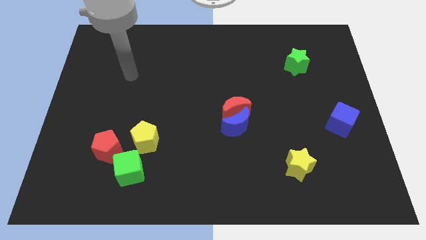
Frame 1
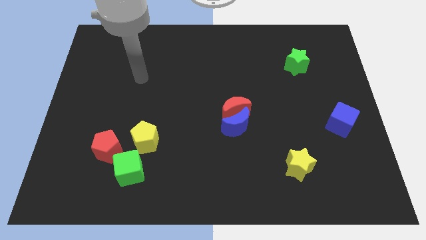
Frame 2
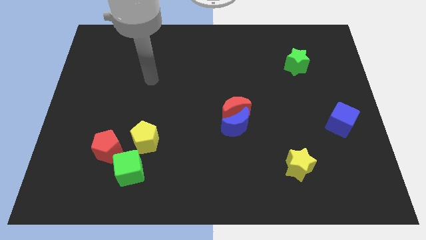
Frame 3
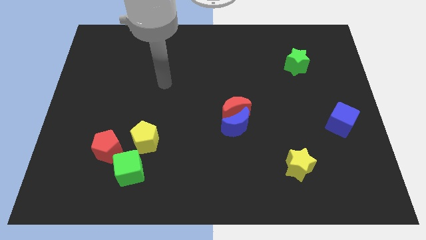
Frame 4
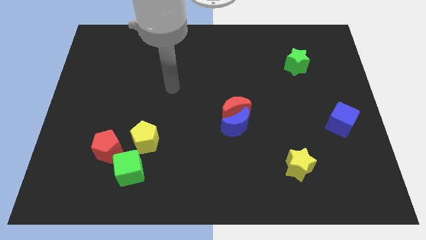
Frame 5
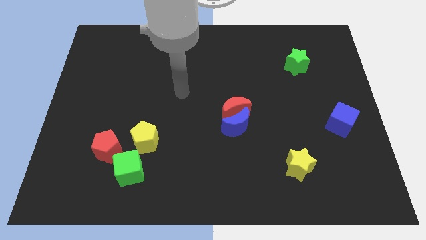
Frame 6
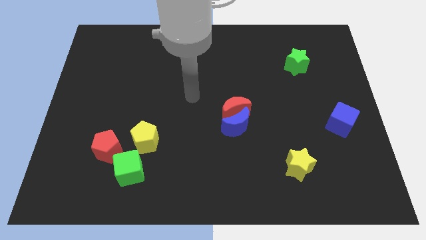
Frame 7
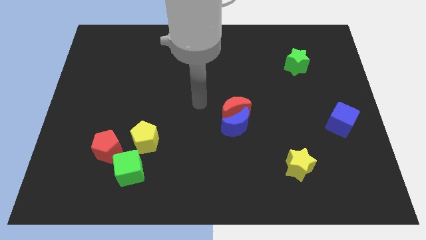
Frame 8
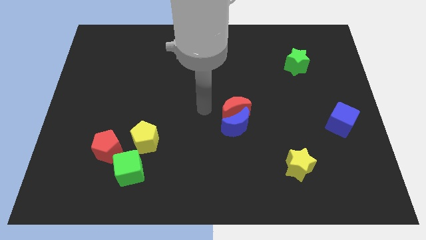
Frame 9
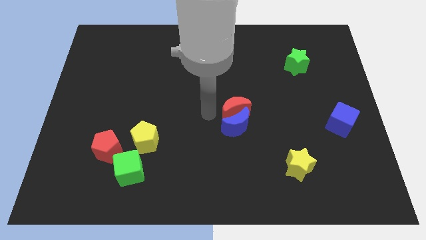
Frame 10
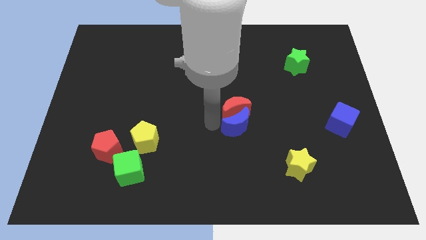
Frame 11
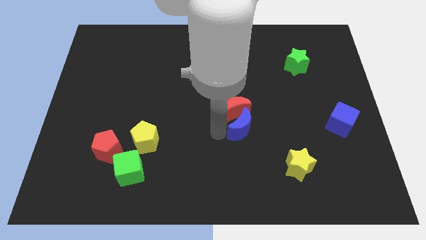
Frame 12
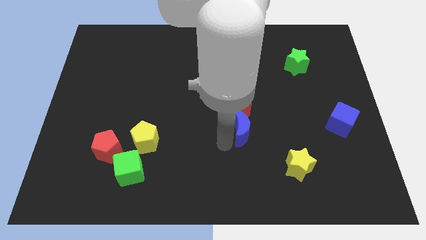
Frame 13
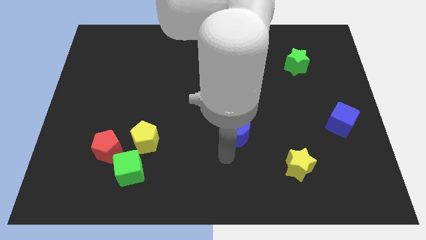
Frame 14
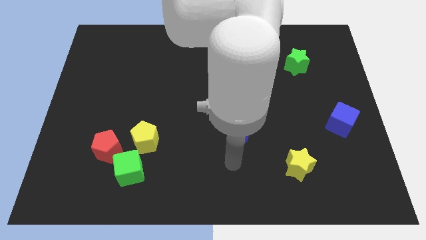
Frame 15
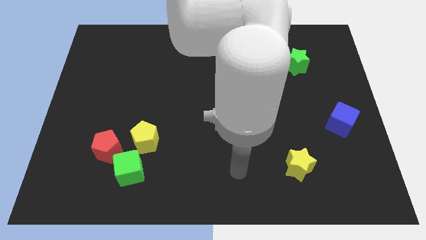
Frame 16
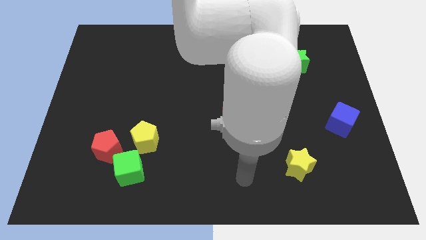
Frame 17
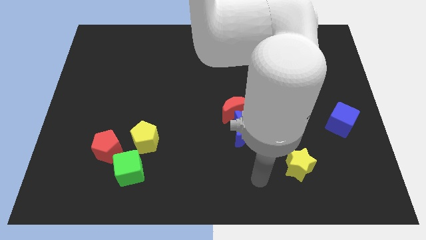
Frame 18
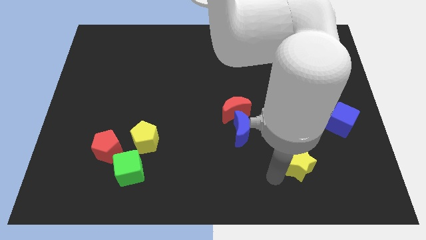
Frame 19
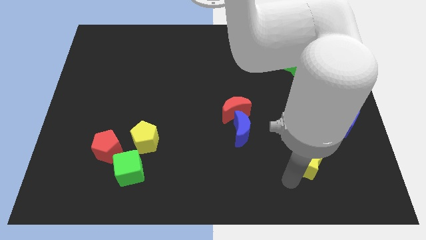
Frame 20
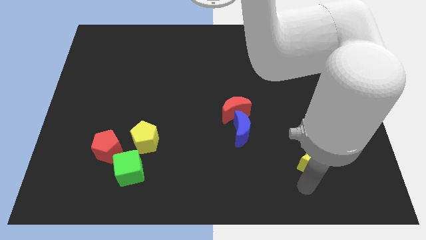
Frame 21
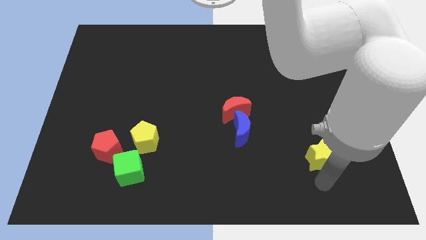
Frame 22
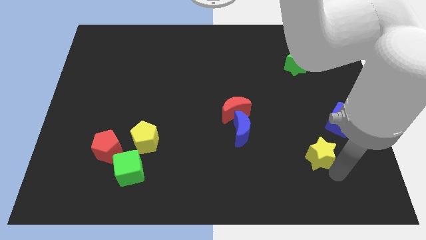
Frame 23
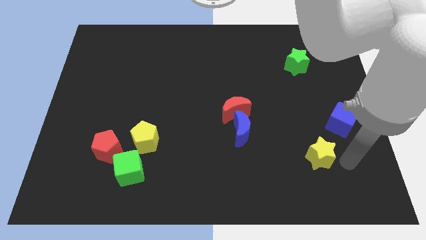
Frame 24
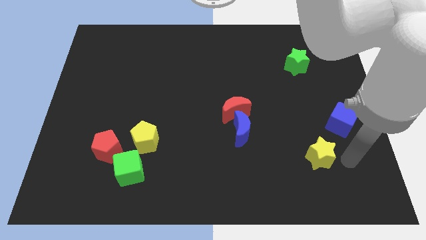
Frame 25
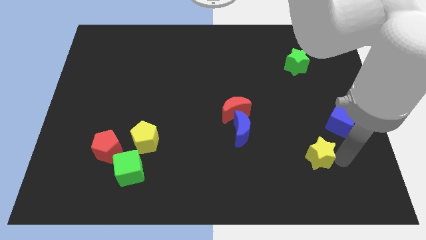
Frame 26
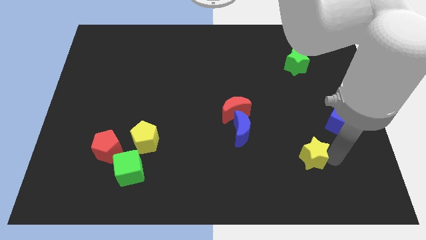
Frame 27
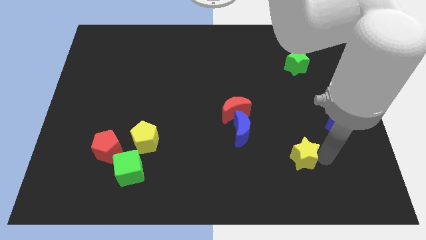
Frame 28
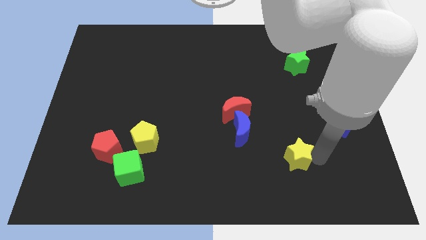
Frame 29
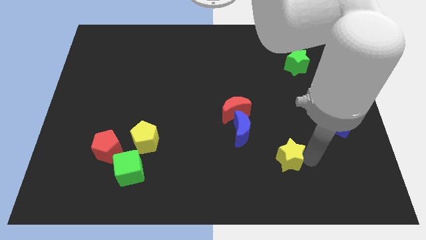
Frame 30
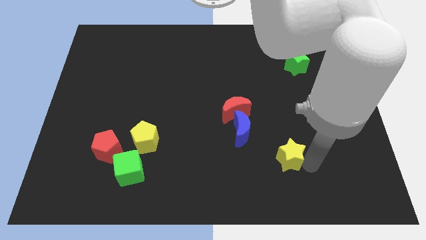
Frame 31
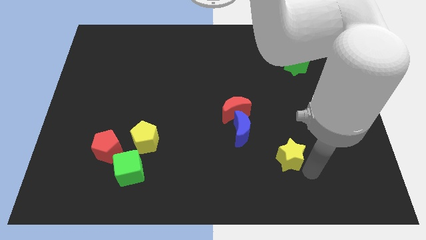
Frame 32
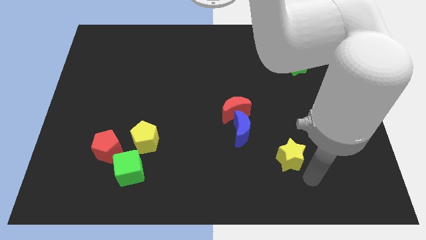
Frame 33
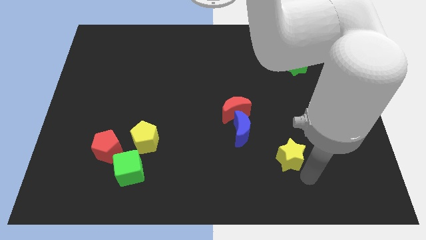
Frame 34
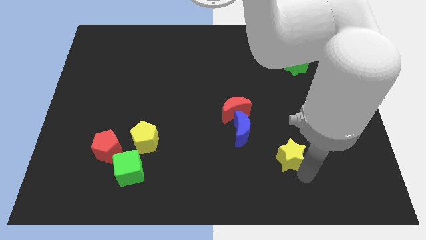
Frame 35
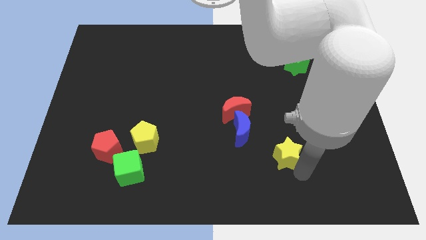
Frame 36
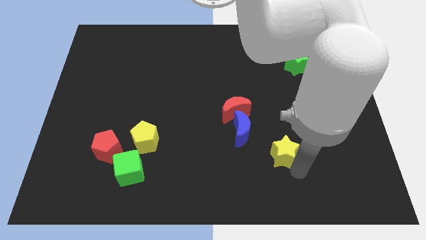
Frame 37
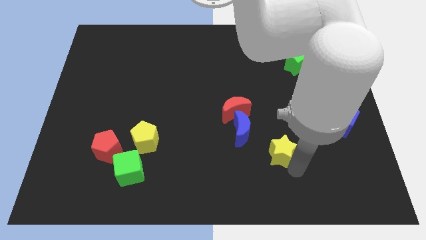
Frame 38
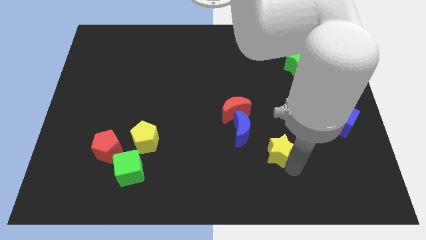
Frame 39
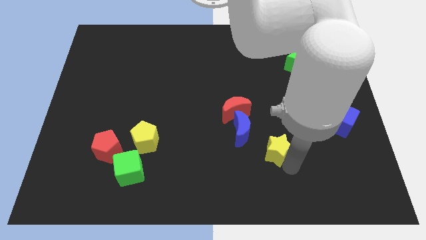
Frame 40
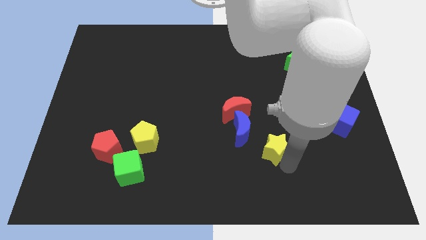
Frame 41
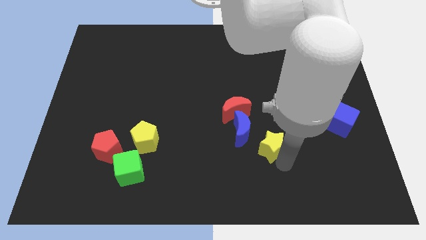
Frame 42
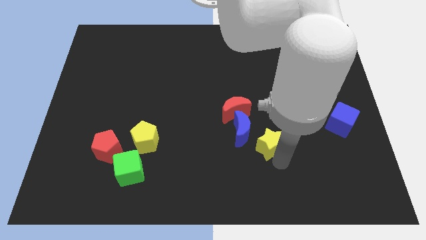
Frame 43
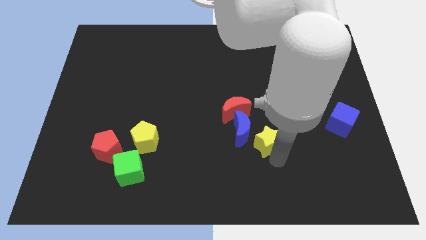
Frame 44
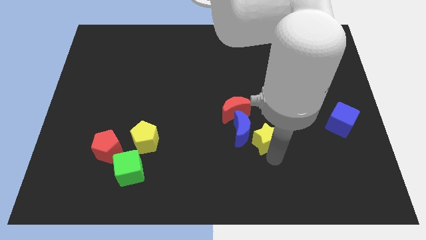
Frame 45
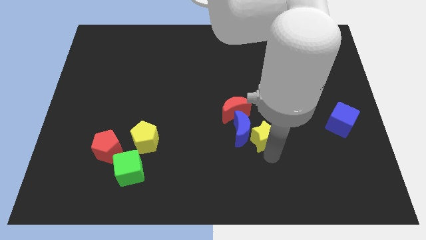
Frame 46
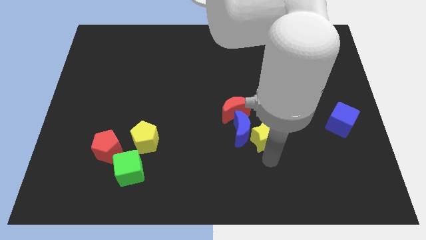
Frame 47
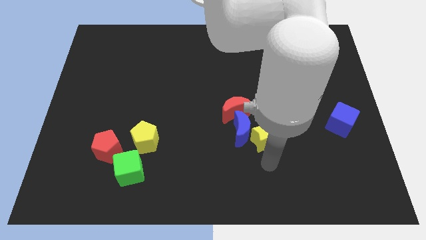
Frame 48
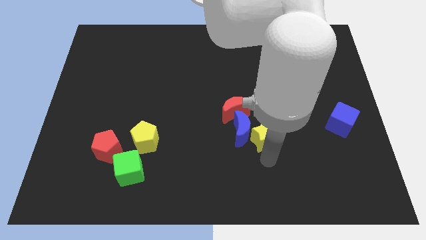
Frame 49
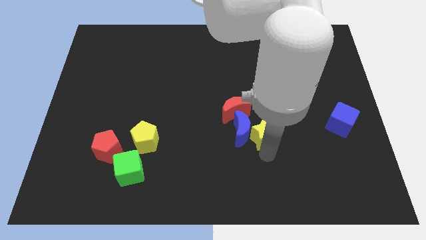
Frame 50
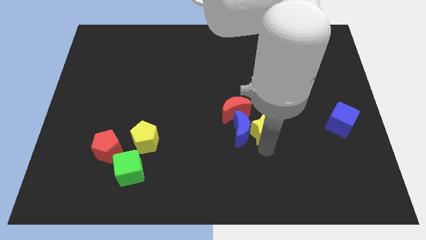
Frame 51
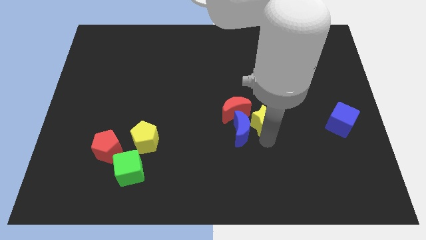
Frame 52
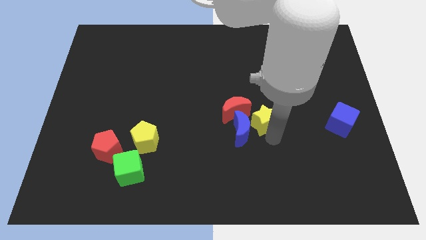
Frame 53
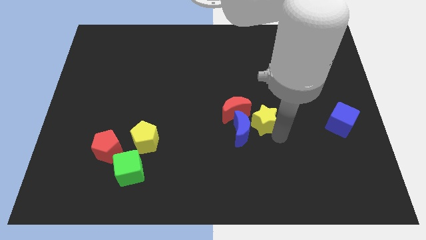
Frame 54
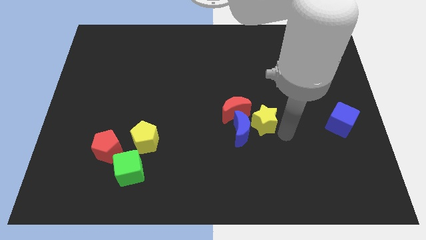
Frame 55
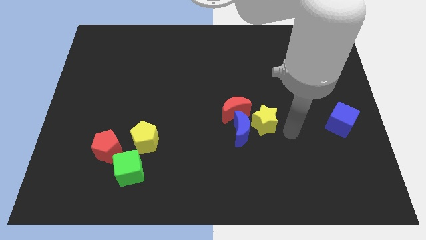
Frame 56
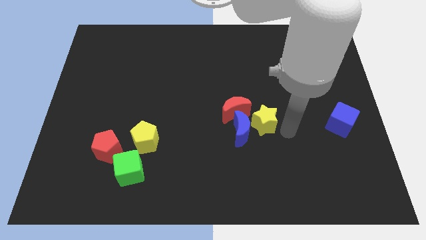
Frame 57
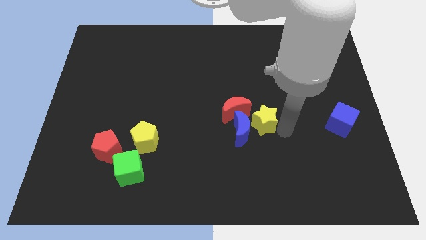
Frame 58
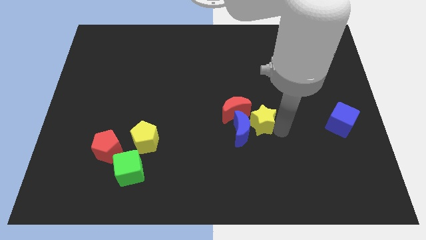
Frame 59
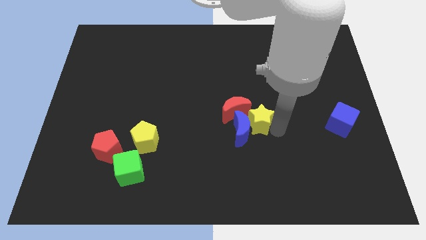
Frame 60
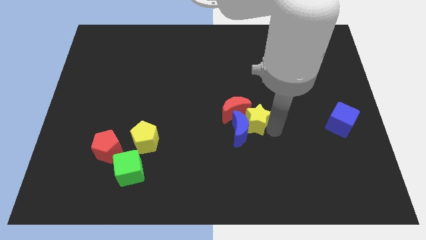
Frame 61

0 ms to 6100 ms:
slide the yellow star towards the red moon

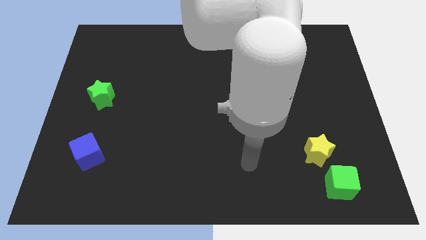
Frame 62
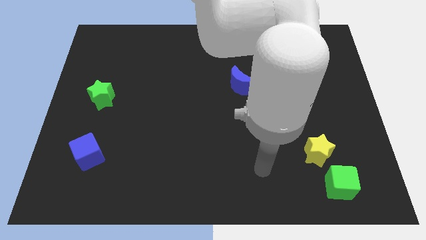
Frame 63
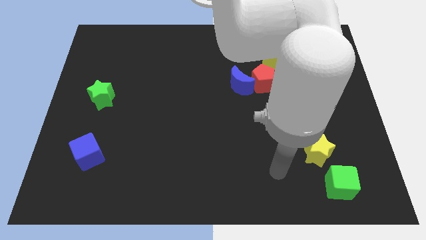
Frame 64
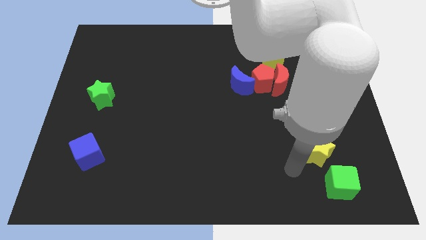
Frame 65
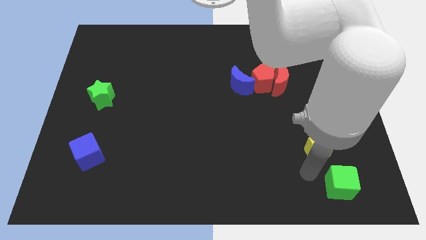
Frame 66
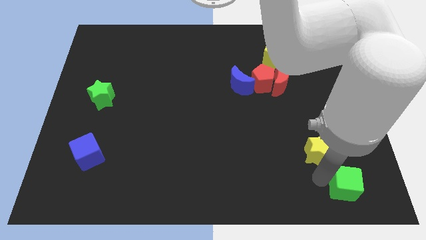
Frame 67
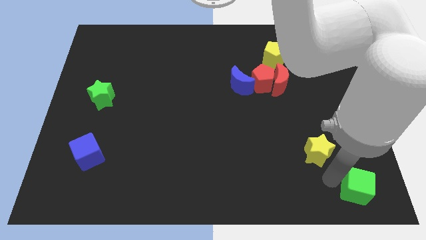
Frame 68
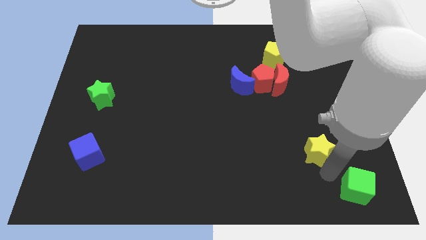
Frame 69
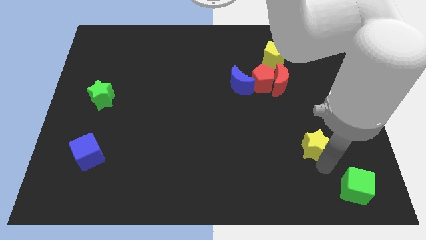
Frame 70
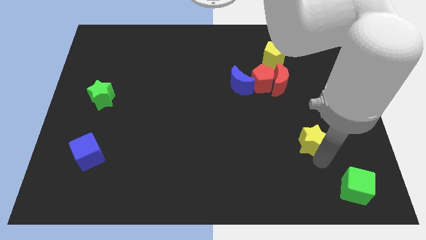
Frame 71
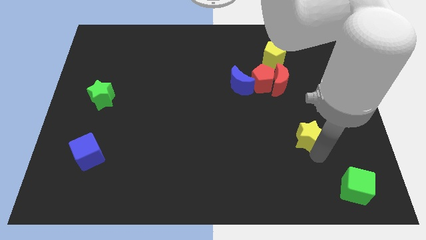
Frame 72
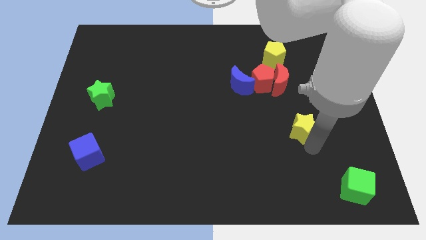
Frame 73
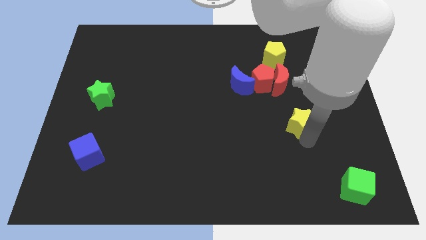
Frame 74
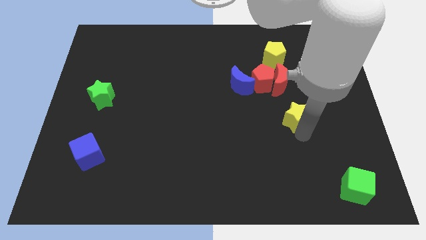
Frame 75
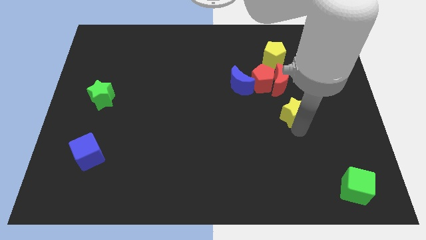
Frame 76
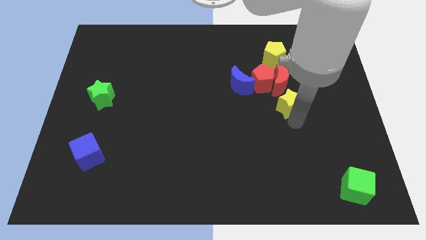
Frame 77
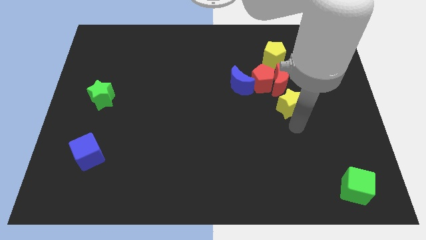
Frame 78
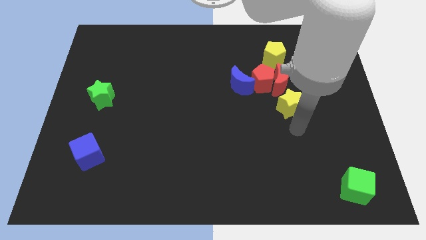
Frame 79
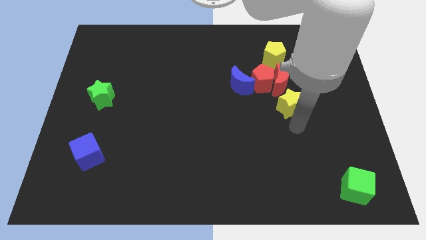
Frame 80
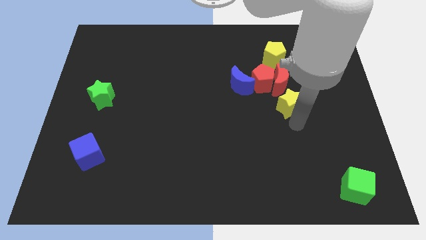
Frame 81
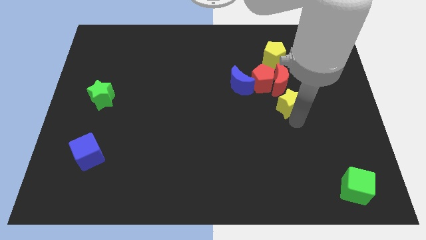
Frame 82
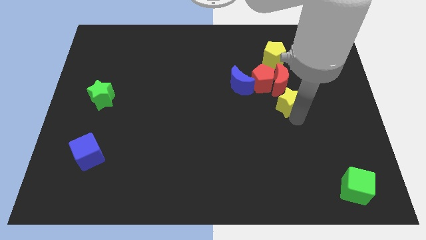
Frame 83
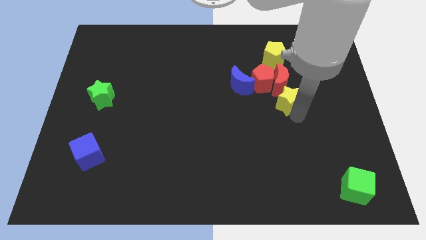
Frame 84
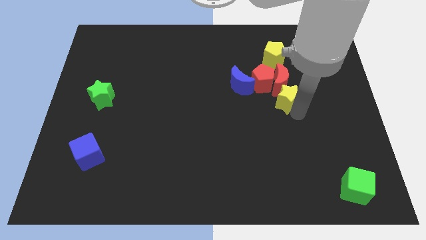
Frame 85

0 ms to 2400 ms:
slide the yellow star close to the red moon
